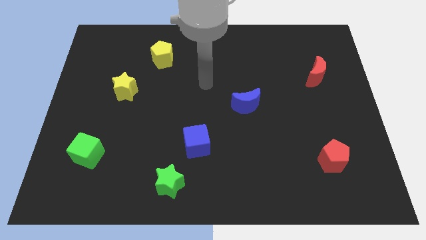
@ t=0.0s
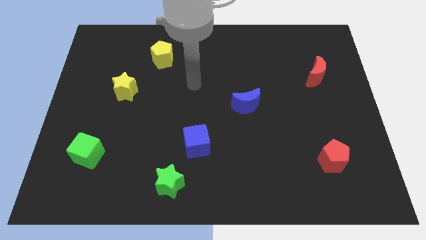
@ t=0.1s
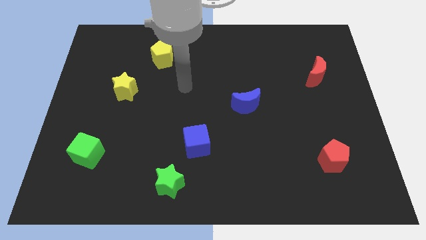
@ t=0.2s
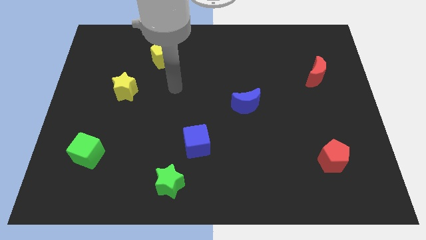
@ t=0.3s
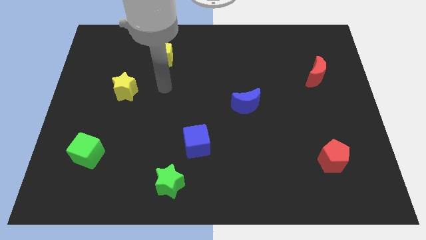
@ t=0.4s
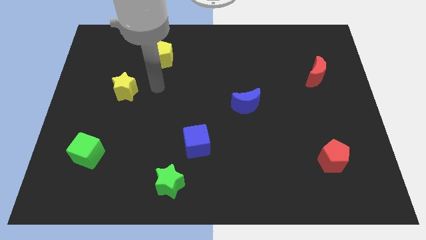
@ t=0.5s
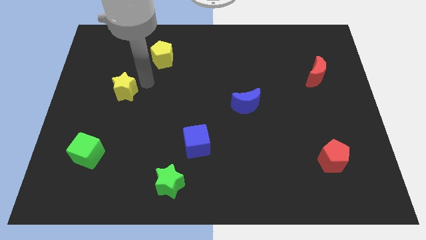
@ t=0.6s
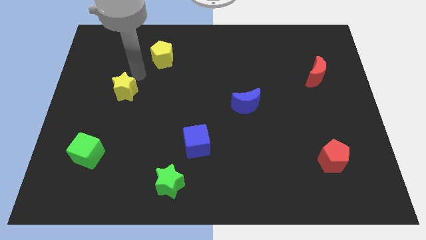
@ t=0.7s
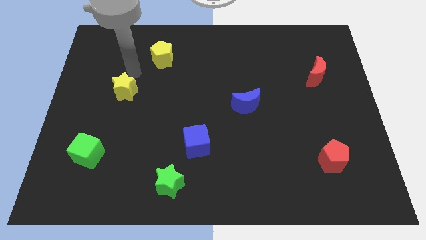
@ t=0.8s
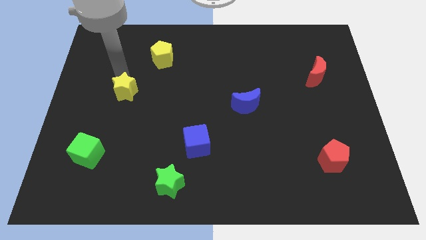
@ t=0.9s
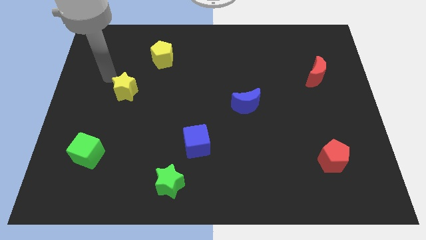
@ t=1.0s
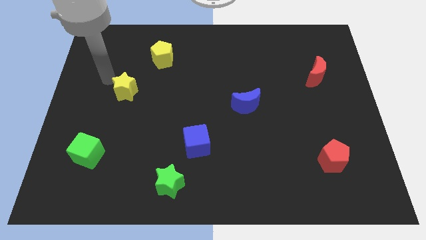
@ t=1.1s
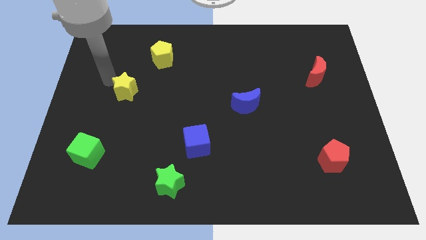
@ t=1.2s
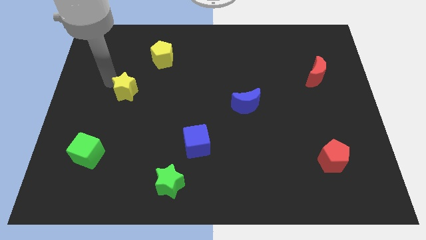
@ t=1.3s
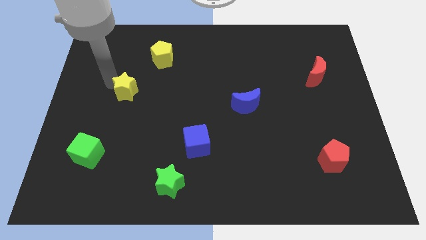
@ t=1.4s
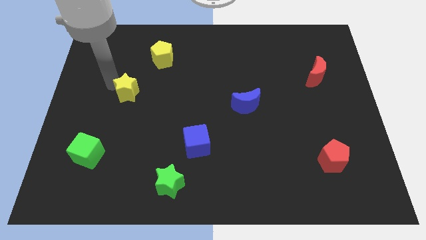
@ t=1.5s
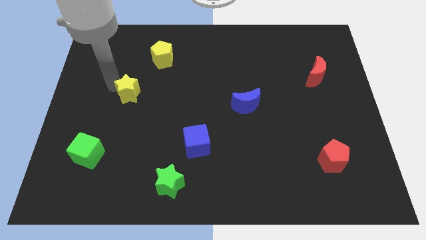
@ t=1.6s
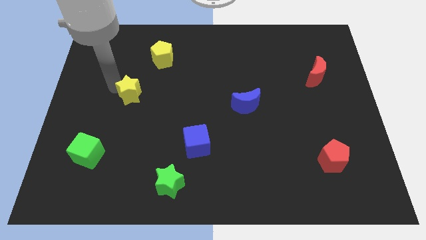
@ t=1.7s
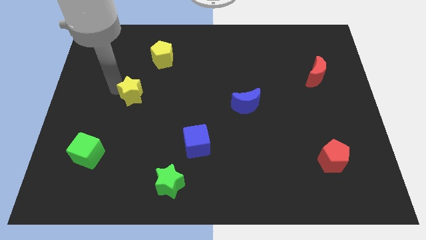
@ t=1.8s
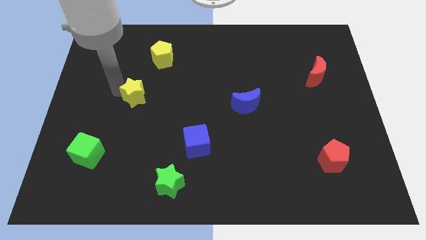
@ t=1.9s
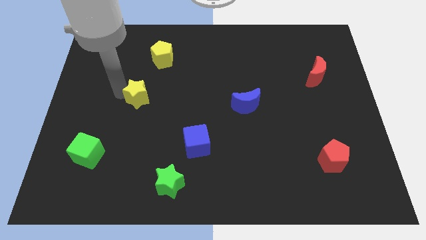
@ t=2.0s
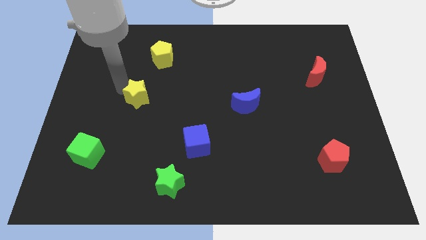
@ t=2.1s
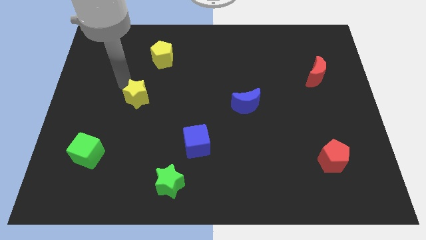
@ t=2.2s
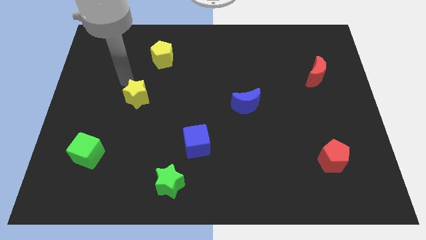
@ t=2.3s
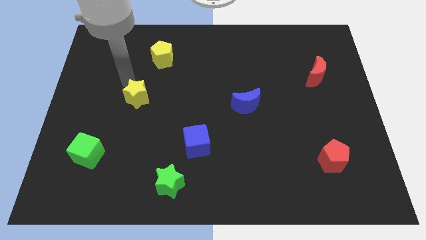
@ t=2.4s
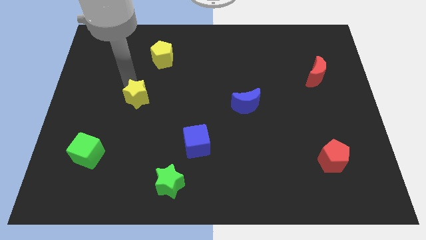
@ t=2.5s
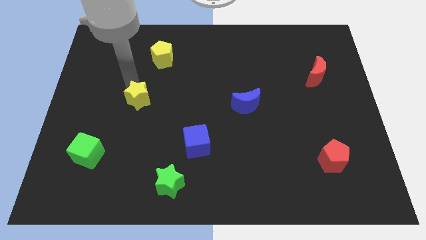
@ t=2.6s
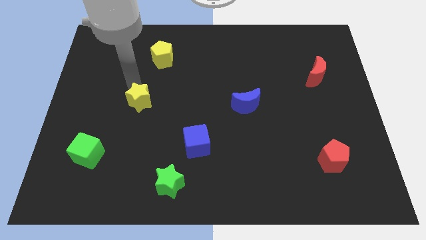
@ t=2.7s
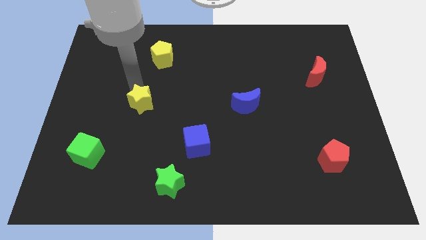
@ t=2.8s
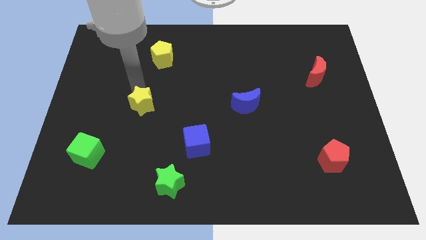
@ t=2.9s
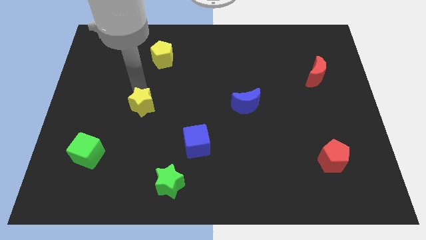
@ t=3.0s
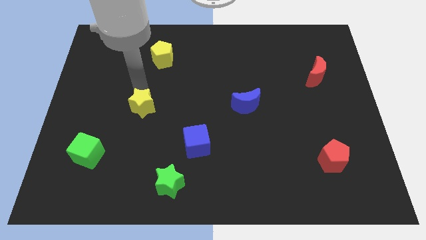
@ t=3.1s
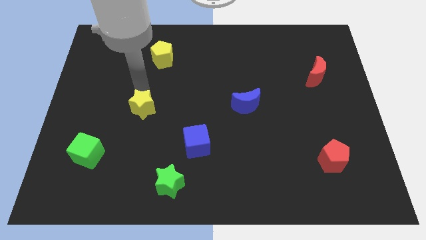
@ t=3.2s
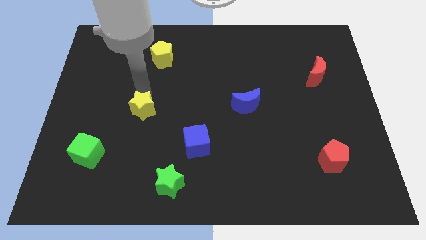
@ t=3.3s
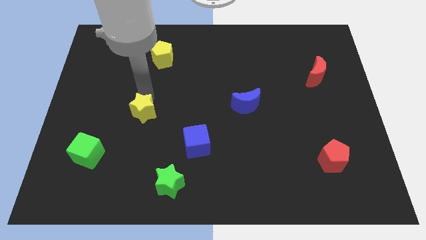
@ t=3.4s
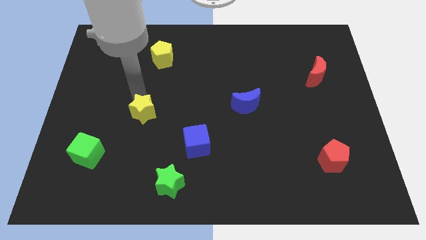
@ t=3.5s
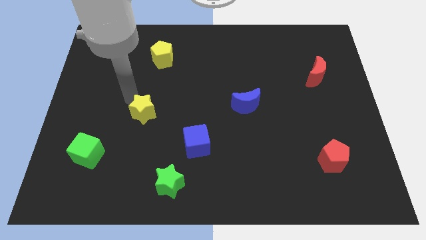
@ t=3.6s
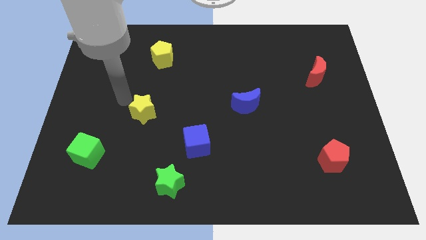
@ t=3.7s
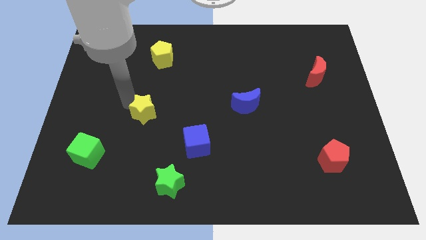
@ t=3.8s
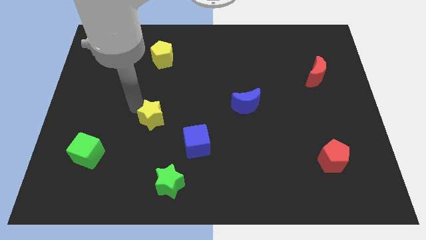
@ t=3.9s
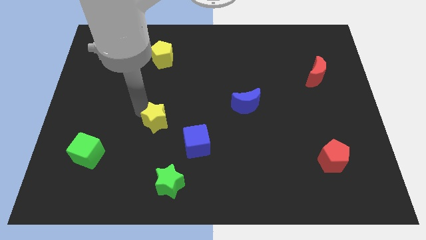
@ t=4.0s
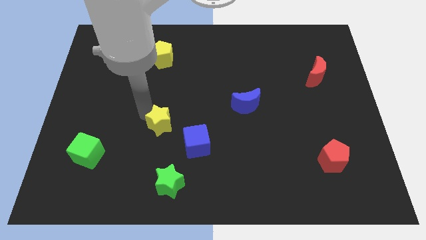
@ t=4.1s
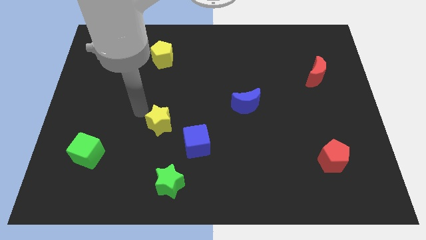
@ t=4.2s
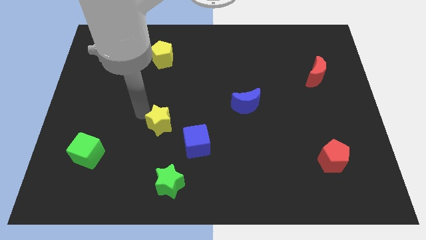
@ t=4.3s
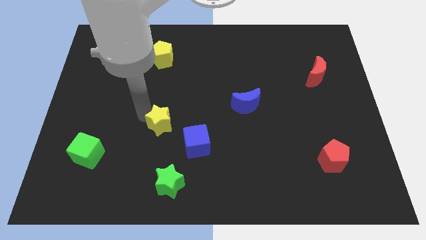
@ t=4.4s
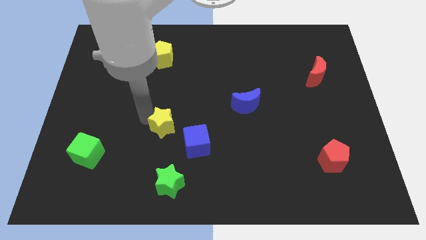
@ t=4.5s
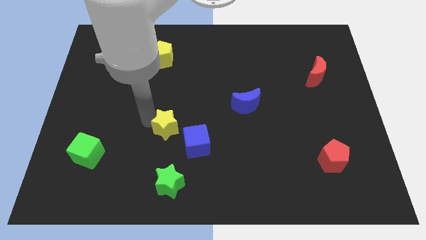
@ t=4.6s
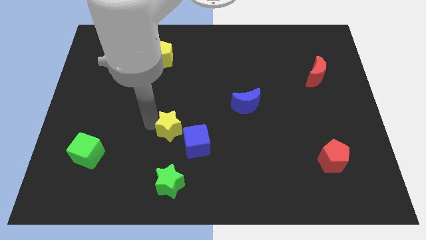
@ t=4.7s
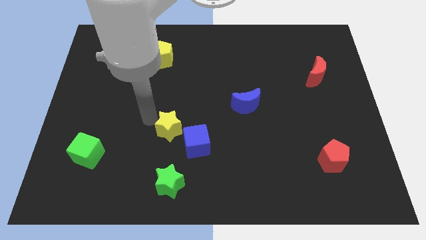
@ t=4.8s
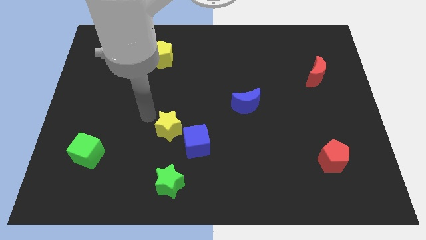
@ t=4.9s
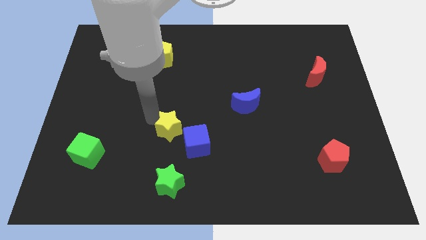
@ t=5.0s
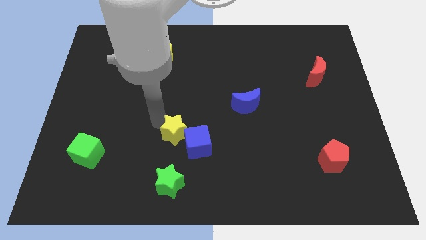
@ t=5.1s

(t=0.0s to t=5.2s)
put the yellow star close to the blue cube

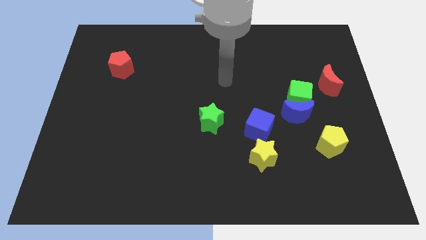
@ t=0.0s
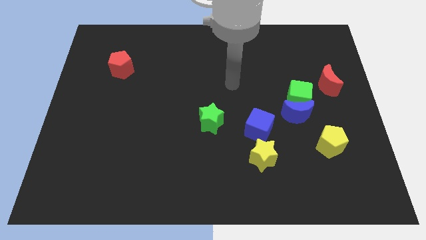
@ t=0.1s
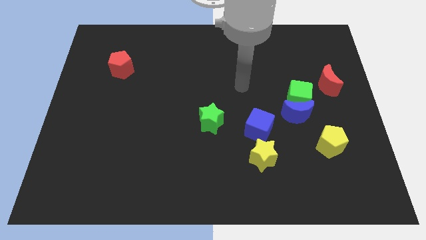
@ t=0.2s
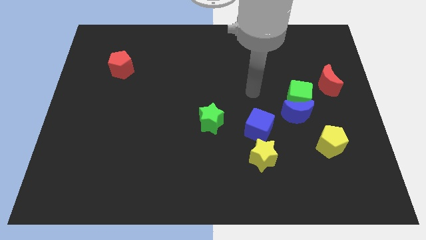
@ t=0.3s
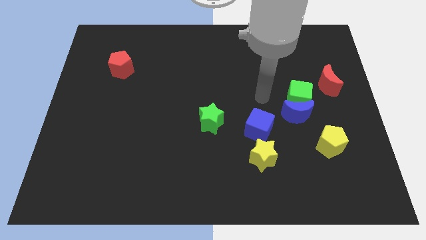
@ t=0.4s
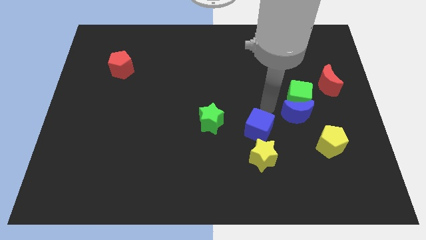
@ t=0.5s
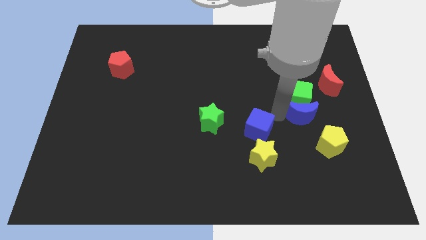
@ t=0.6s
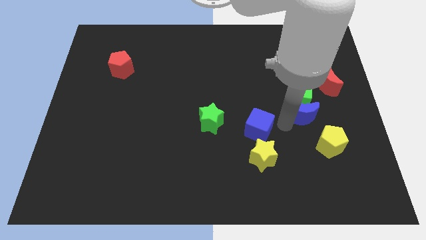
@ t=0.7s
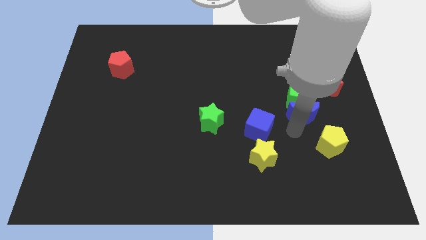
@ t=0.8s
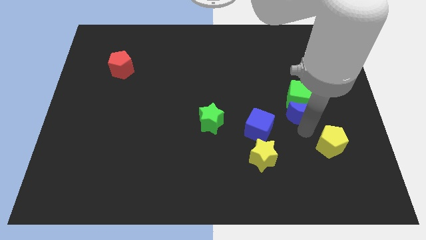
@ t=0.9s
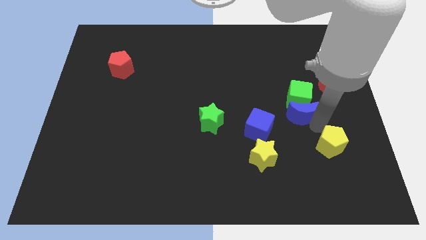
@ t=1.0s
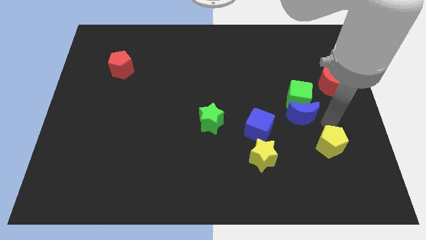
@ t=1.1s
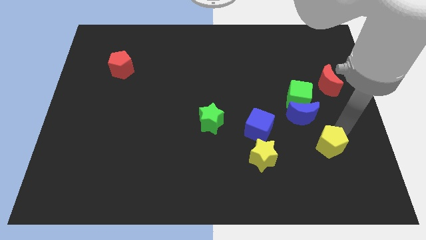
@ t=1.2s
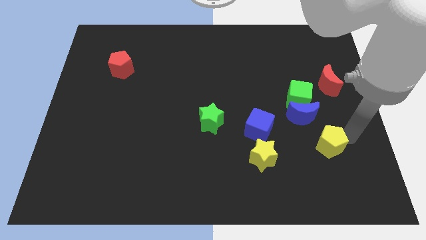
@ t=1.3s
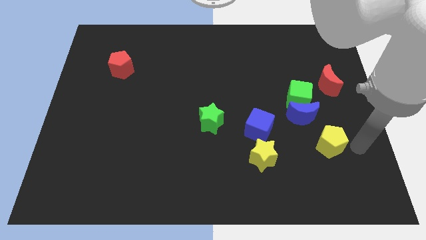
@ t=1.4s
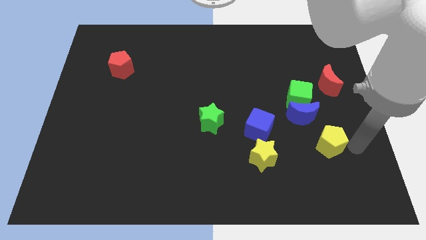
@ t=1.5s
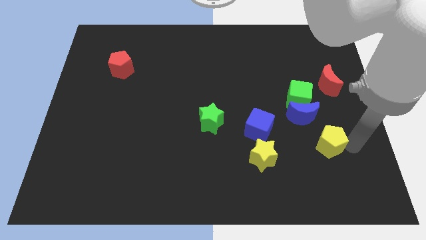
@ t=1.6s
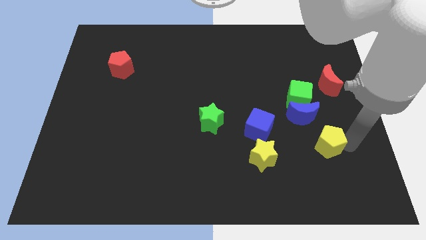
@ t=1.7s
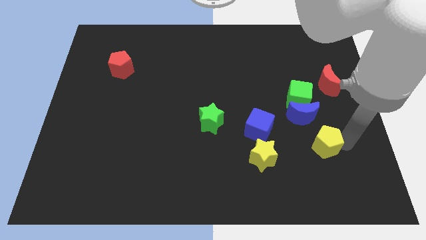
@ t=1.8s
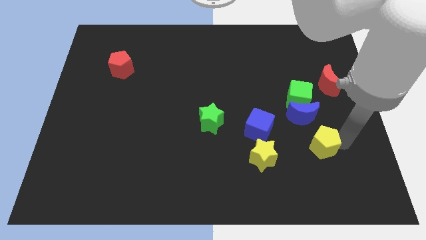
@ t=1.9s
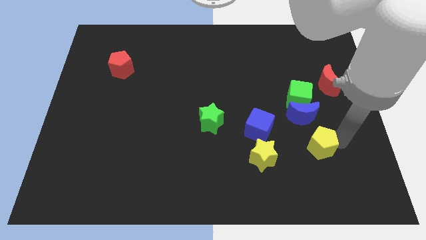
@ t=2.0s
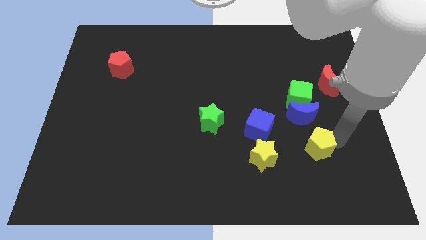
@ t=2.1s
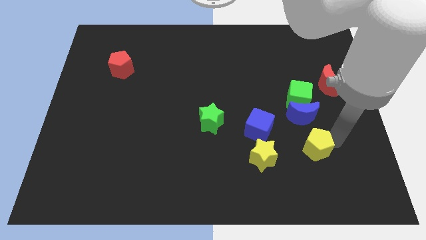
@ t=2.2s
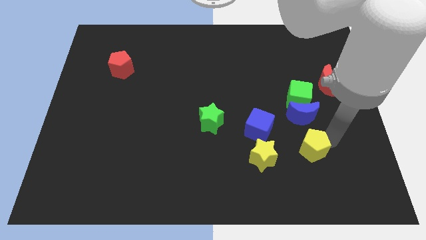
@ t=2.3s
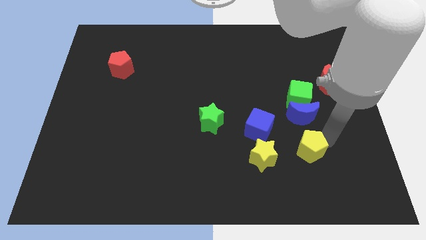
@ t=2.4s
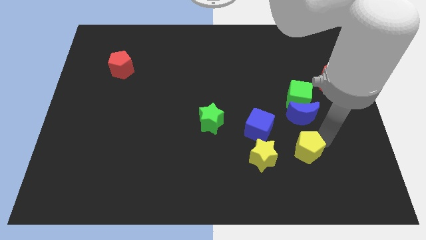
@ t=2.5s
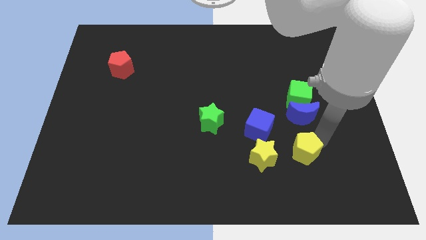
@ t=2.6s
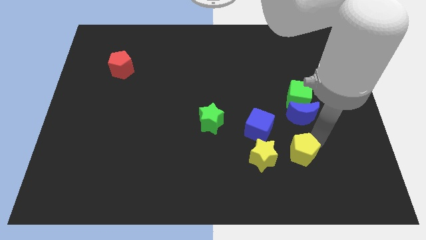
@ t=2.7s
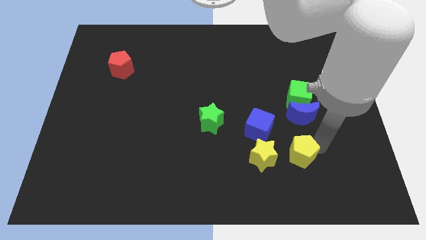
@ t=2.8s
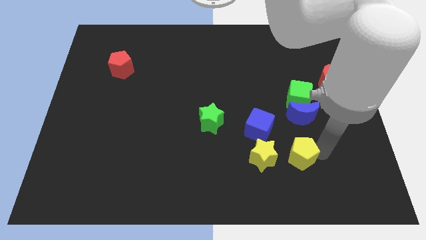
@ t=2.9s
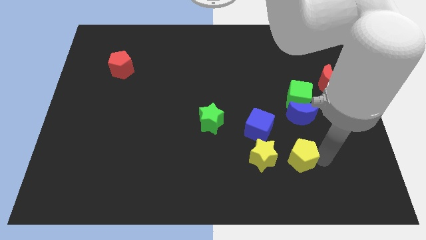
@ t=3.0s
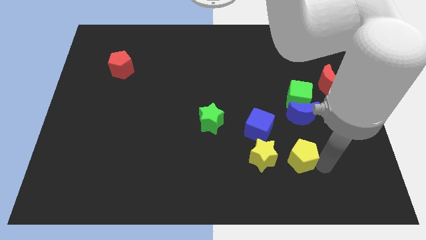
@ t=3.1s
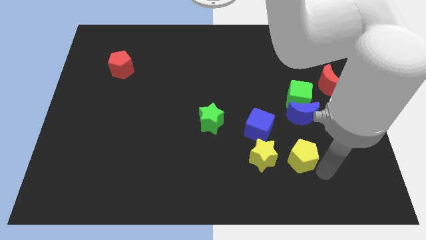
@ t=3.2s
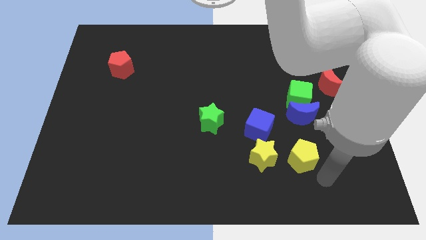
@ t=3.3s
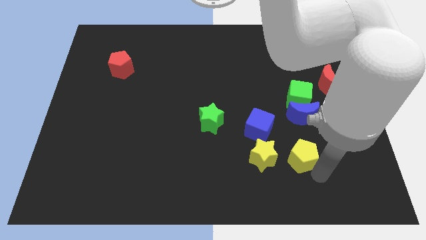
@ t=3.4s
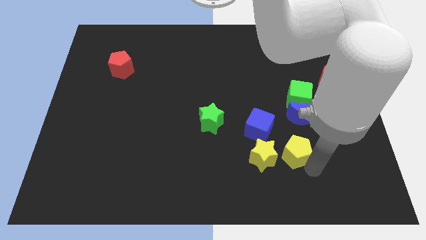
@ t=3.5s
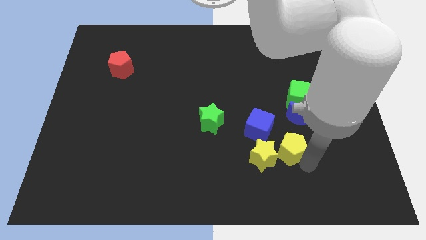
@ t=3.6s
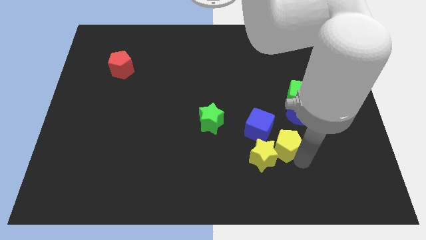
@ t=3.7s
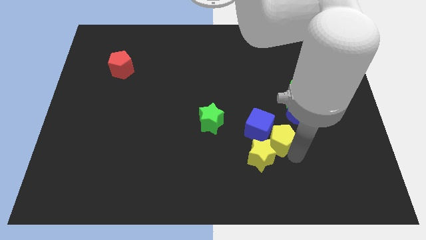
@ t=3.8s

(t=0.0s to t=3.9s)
slide the yellow pentagon towards the blue cube
